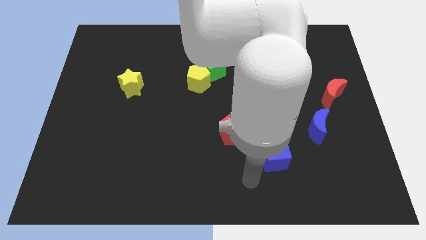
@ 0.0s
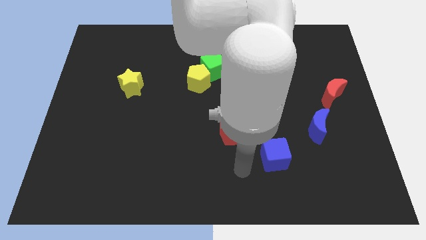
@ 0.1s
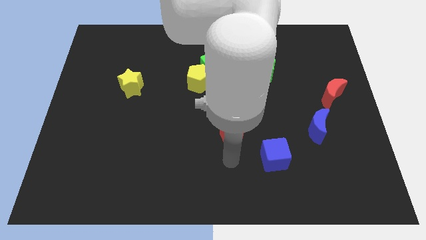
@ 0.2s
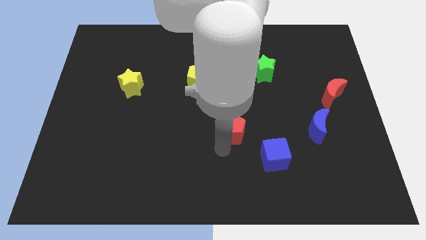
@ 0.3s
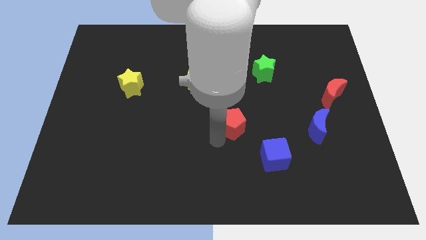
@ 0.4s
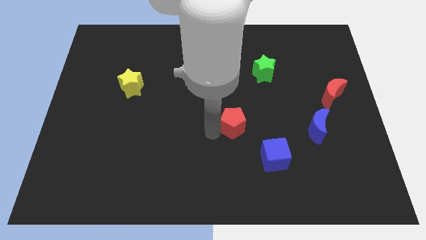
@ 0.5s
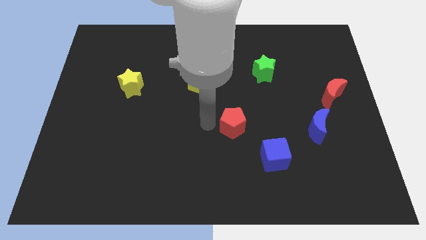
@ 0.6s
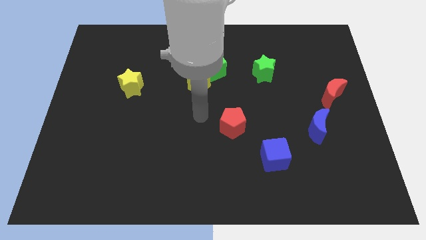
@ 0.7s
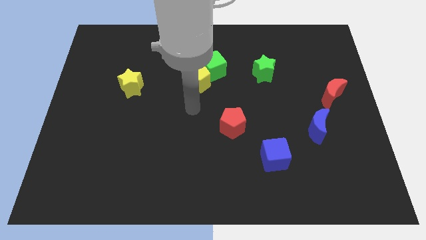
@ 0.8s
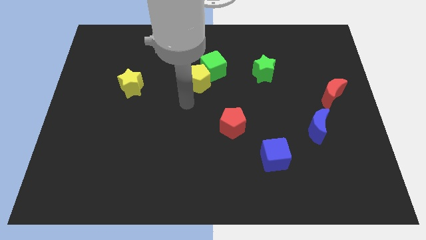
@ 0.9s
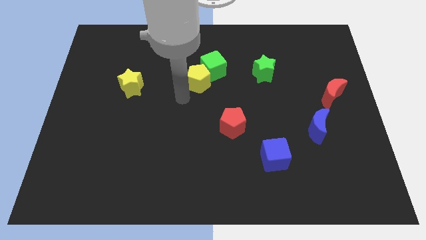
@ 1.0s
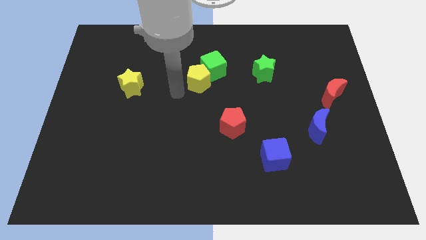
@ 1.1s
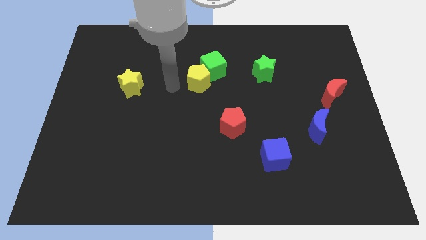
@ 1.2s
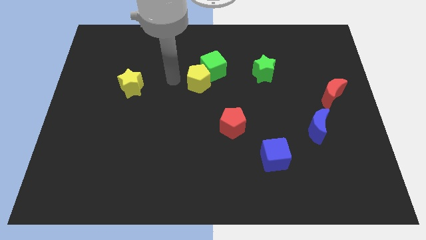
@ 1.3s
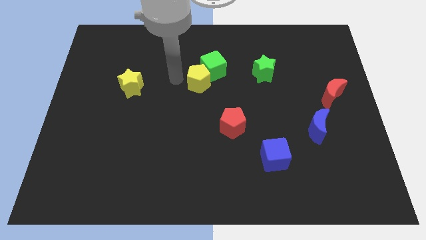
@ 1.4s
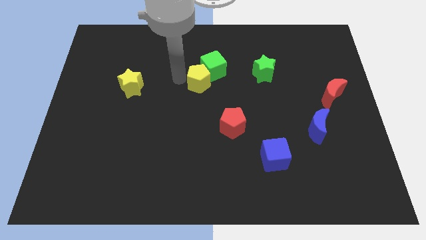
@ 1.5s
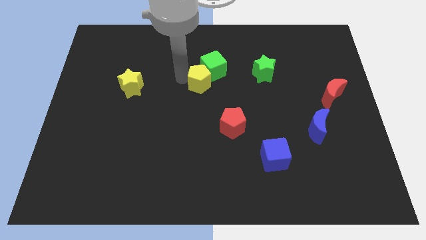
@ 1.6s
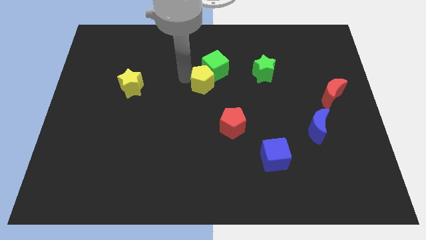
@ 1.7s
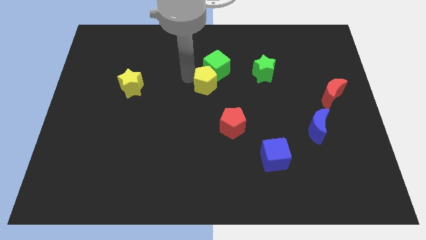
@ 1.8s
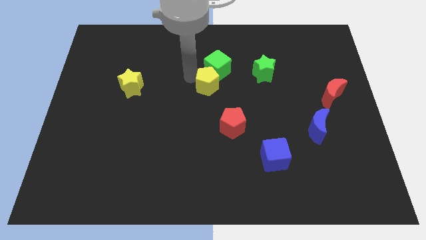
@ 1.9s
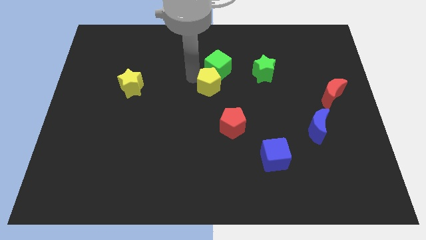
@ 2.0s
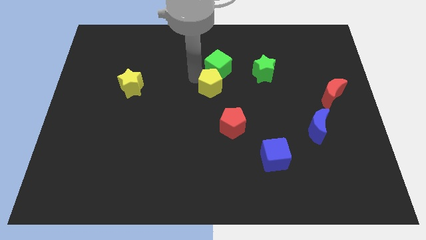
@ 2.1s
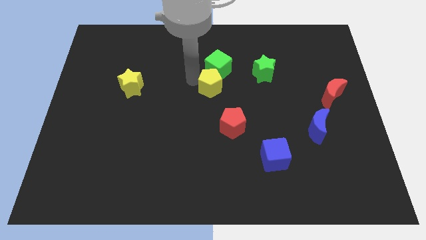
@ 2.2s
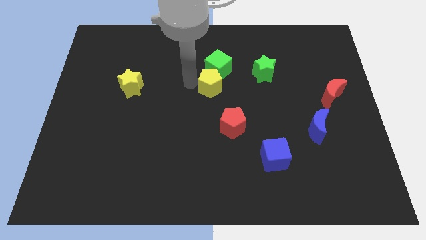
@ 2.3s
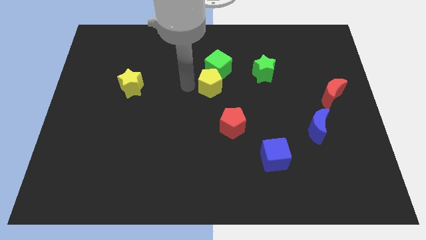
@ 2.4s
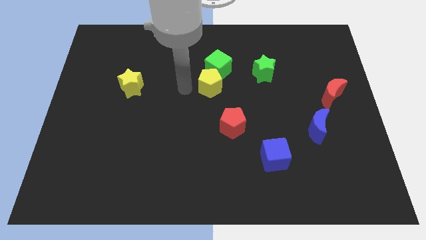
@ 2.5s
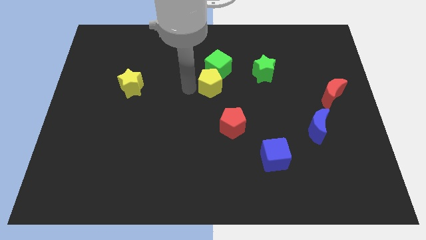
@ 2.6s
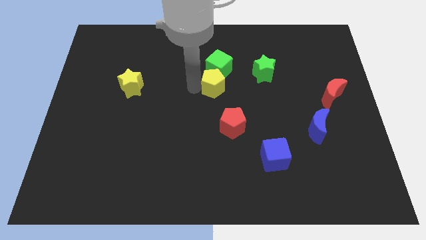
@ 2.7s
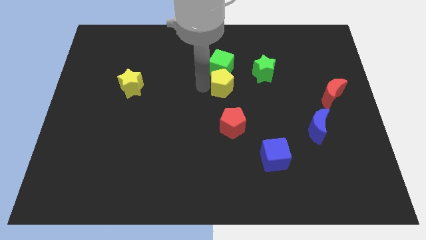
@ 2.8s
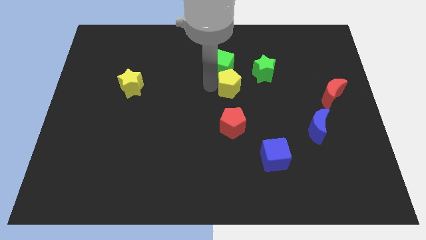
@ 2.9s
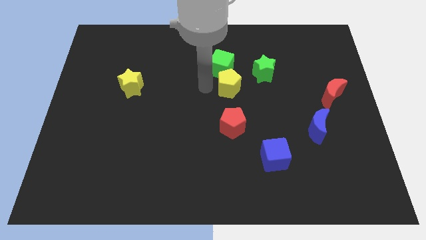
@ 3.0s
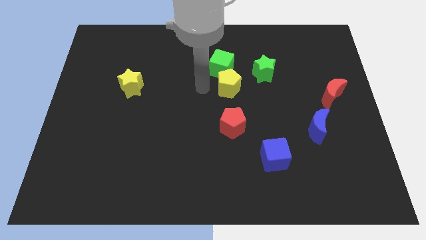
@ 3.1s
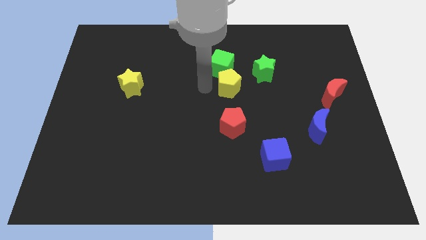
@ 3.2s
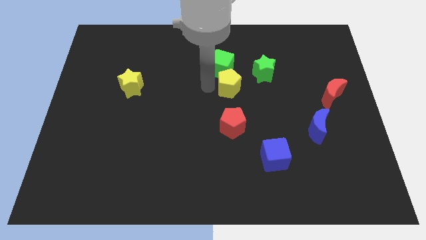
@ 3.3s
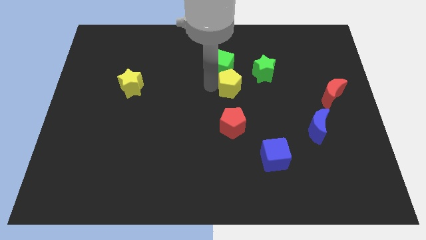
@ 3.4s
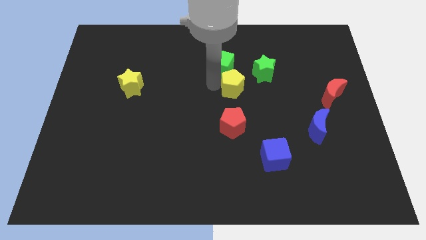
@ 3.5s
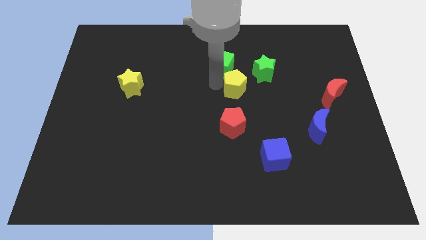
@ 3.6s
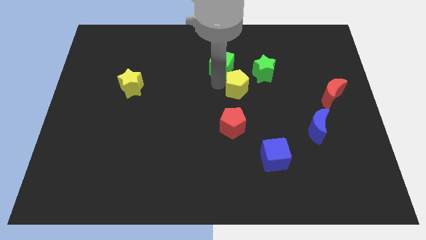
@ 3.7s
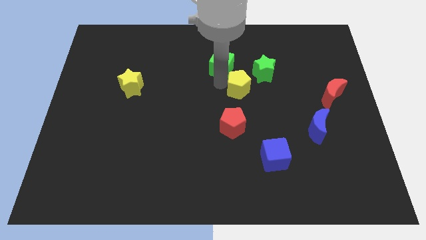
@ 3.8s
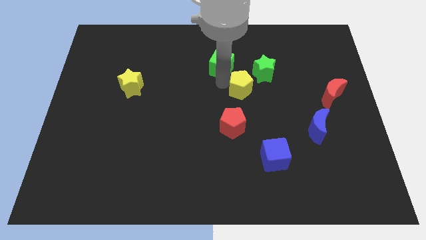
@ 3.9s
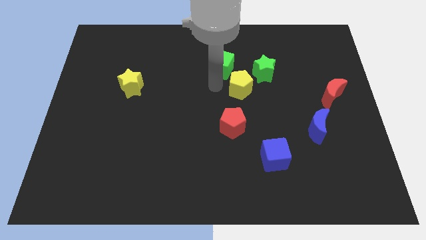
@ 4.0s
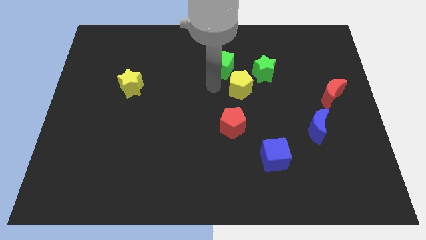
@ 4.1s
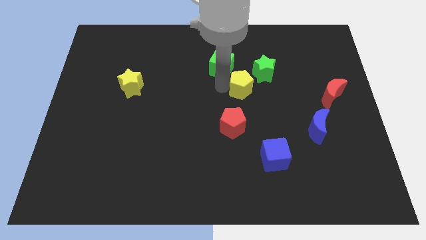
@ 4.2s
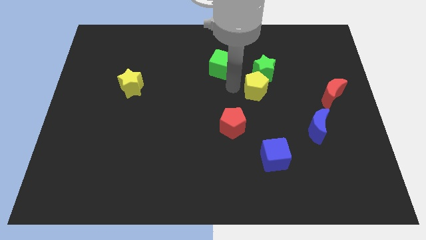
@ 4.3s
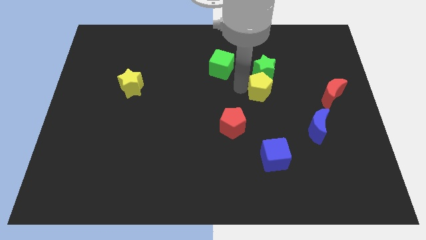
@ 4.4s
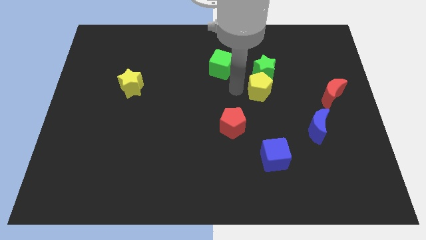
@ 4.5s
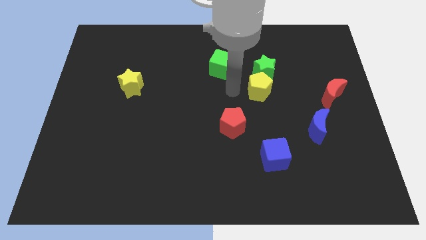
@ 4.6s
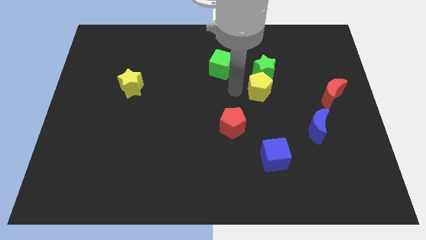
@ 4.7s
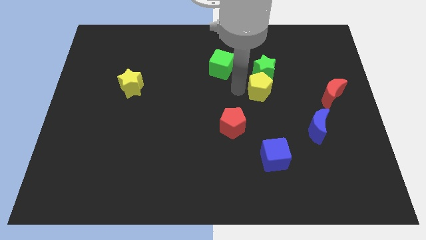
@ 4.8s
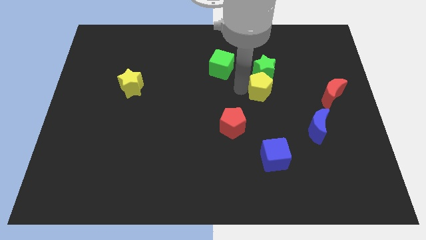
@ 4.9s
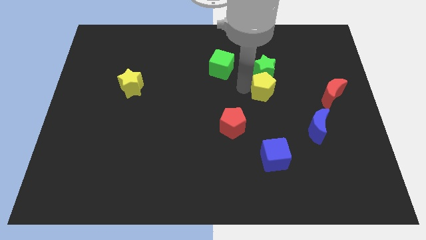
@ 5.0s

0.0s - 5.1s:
slide the yellow pentagon to the bottom right of the green star

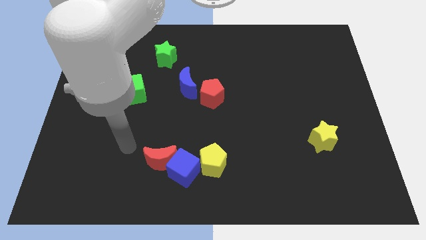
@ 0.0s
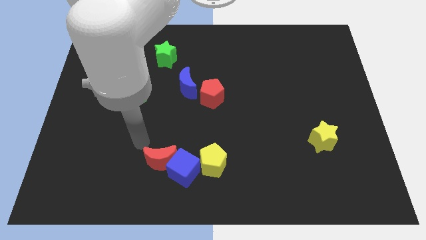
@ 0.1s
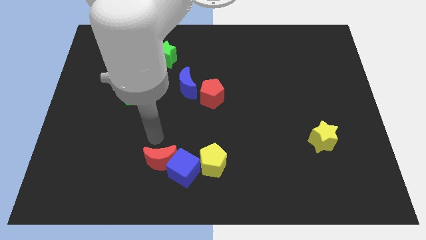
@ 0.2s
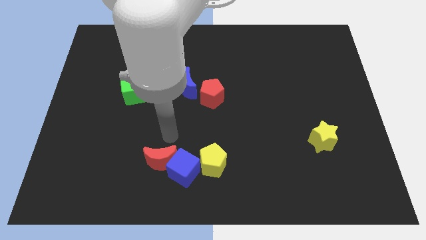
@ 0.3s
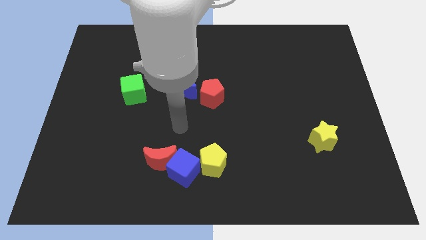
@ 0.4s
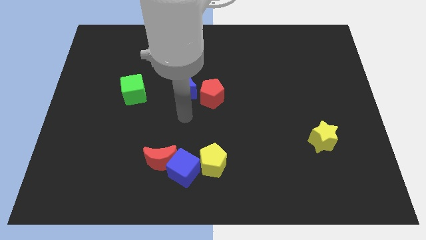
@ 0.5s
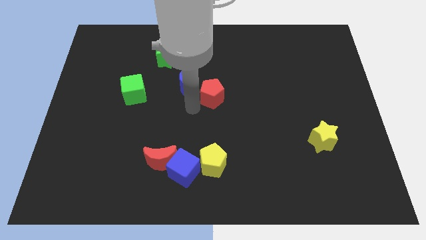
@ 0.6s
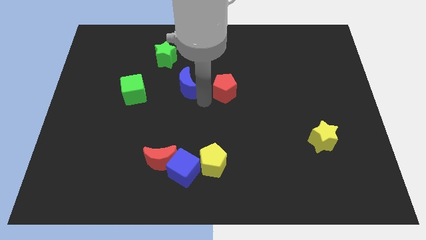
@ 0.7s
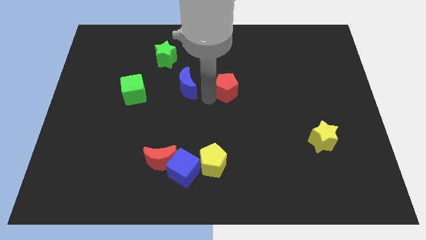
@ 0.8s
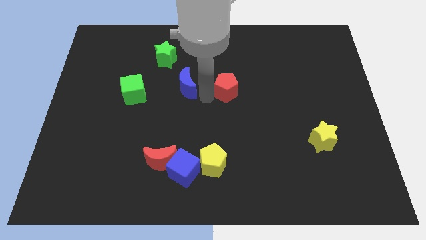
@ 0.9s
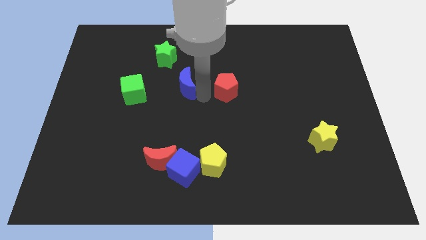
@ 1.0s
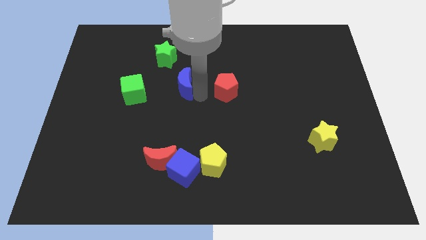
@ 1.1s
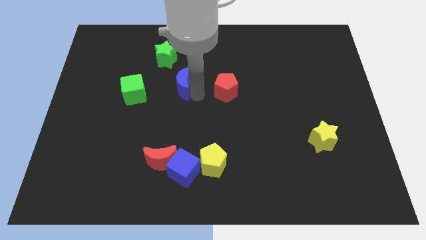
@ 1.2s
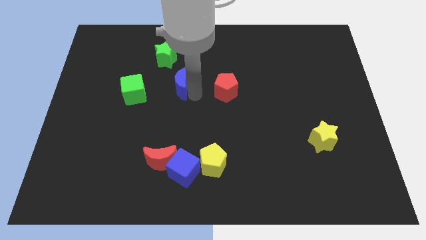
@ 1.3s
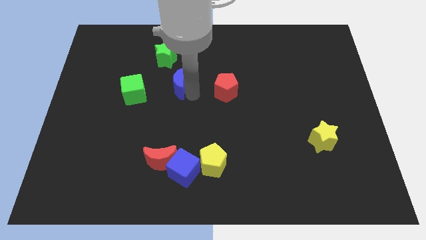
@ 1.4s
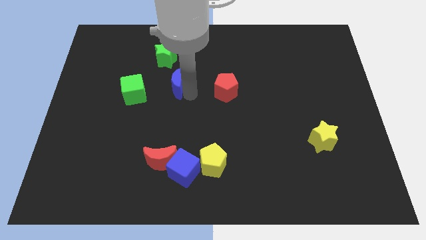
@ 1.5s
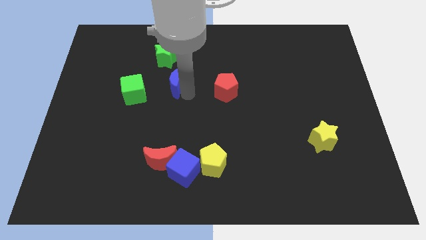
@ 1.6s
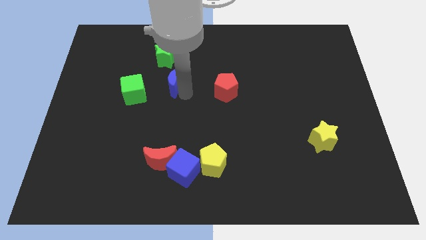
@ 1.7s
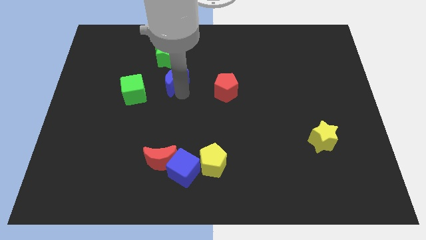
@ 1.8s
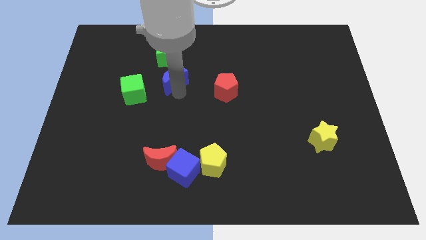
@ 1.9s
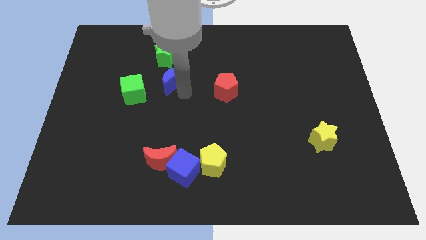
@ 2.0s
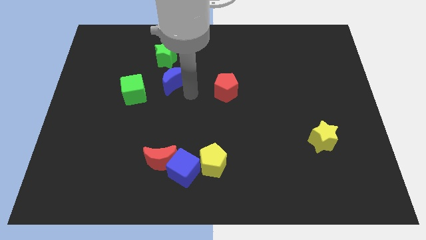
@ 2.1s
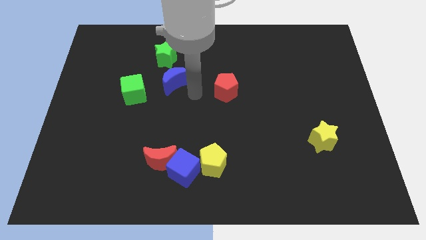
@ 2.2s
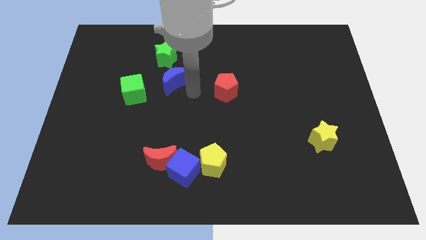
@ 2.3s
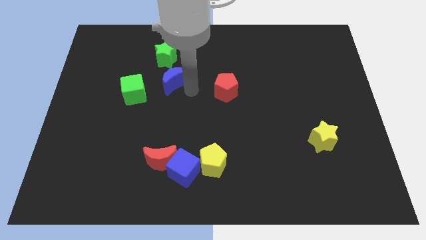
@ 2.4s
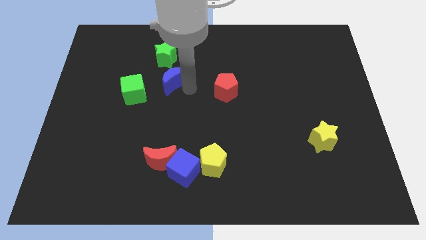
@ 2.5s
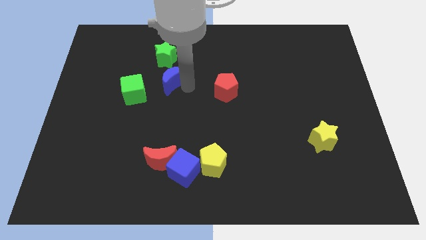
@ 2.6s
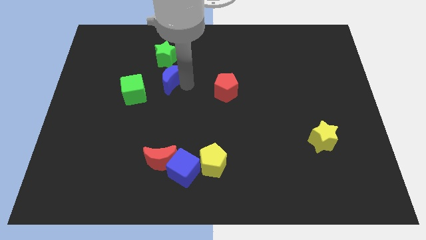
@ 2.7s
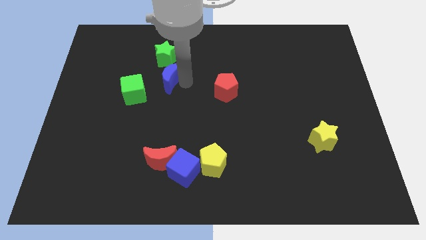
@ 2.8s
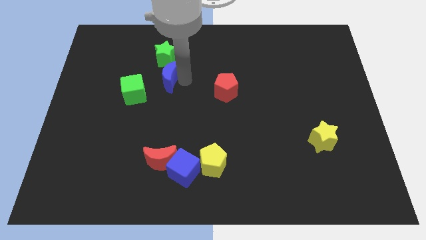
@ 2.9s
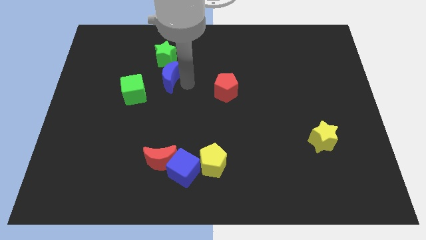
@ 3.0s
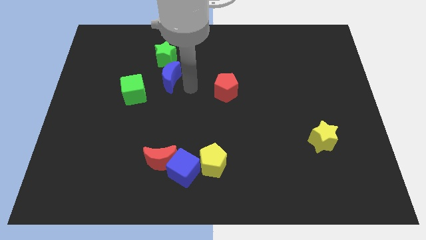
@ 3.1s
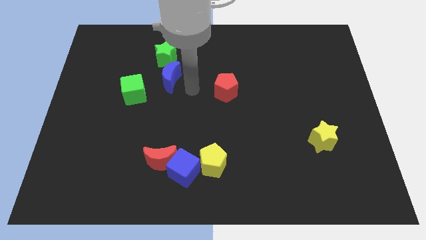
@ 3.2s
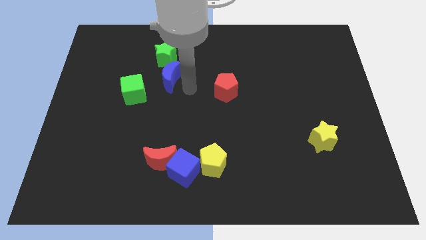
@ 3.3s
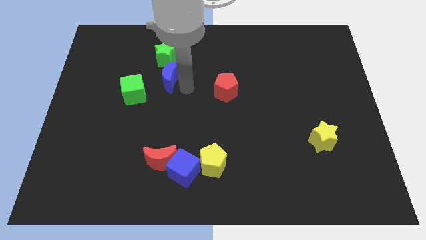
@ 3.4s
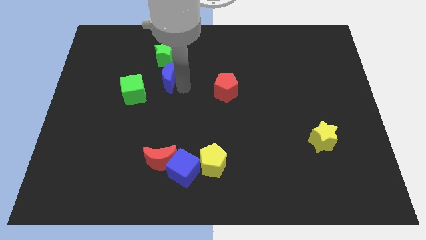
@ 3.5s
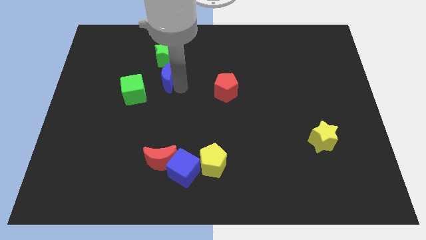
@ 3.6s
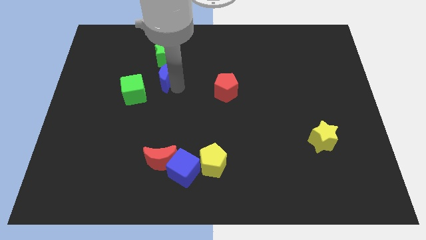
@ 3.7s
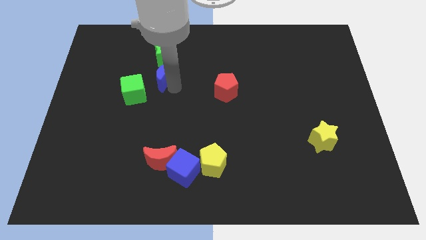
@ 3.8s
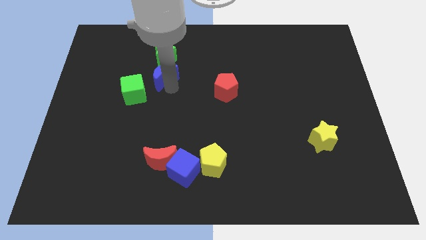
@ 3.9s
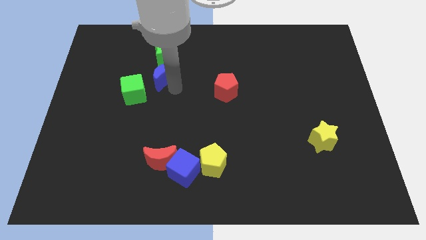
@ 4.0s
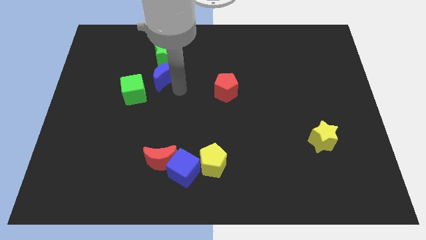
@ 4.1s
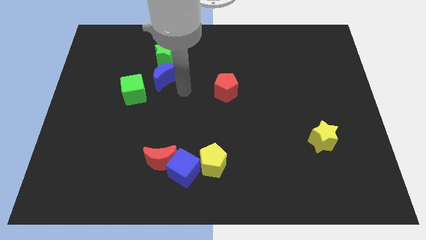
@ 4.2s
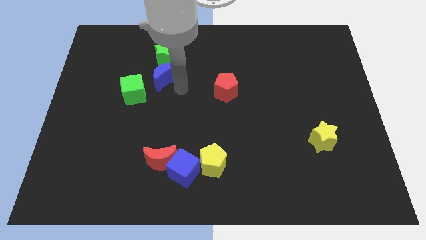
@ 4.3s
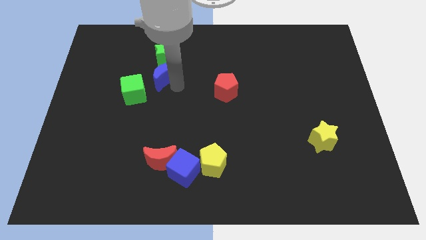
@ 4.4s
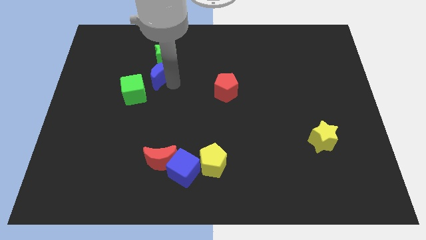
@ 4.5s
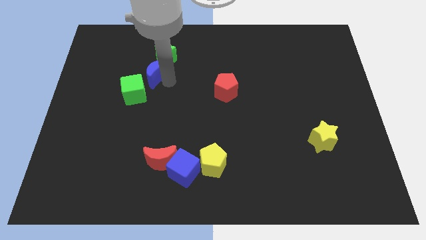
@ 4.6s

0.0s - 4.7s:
put the blue moon to the top side of the green cube
